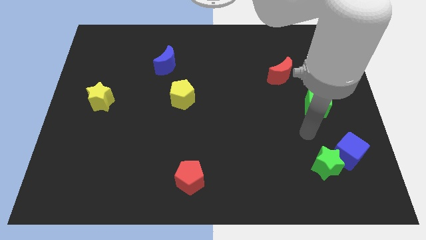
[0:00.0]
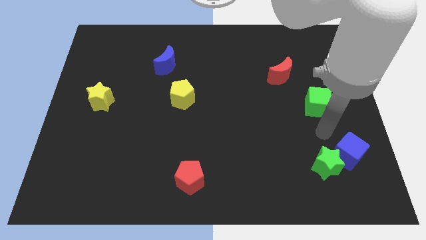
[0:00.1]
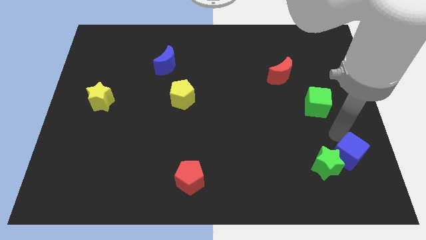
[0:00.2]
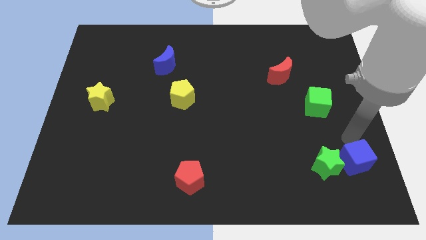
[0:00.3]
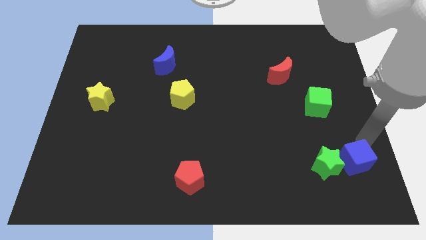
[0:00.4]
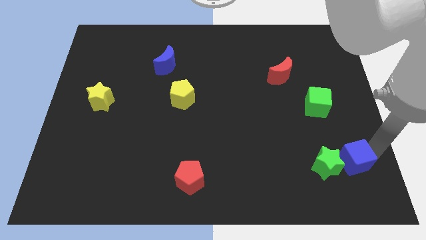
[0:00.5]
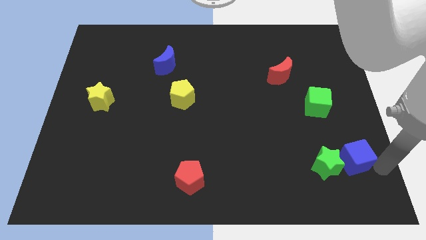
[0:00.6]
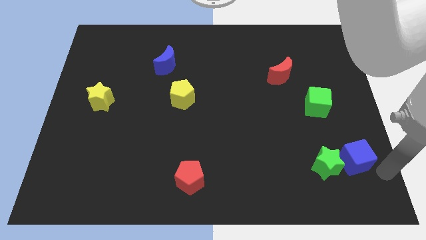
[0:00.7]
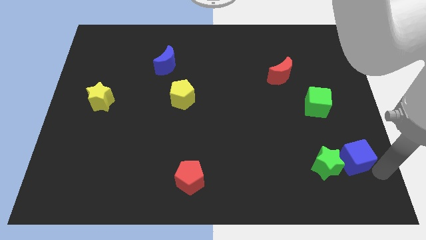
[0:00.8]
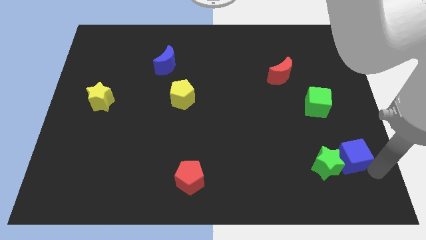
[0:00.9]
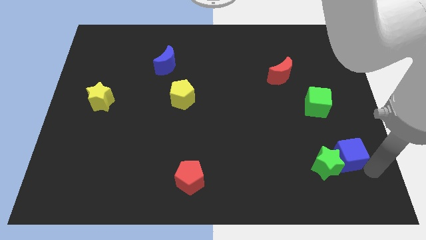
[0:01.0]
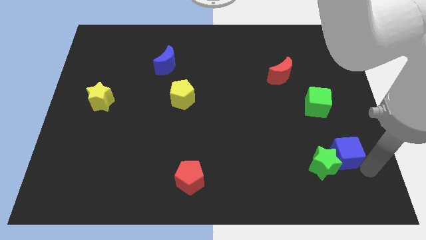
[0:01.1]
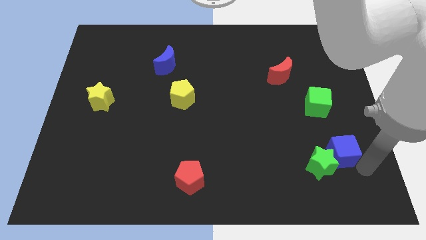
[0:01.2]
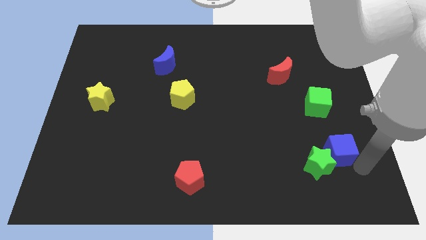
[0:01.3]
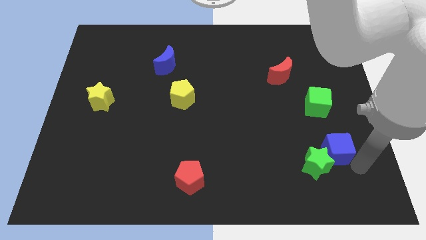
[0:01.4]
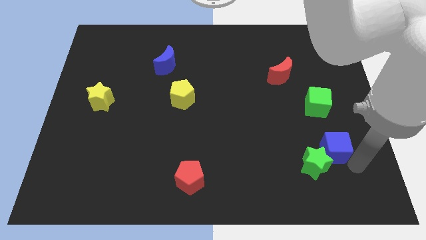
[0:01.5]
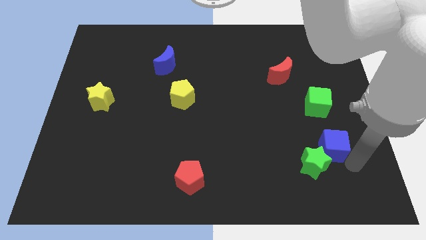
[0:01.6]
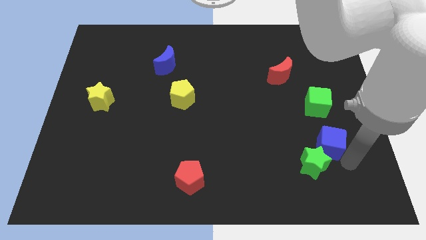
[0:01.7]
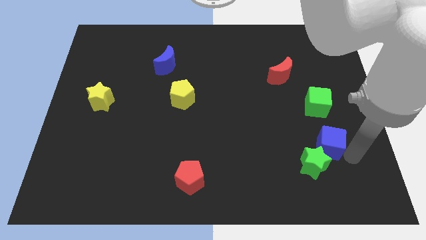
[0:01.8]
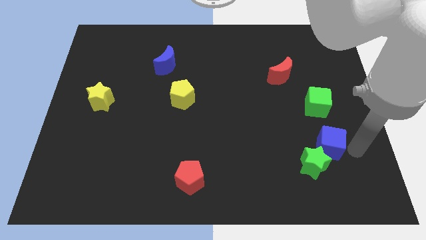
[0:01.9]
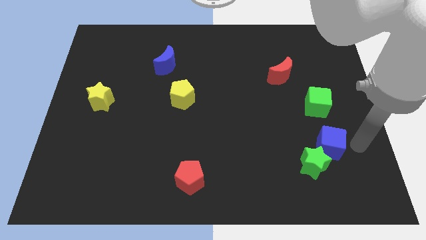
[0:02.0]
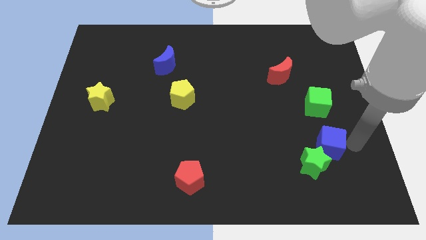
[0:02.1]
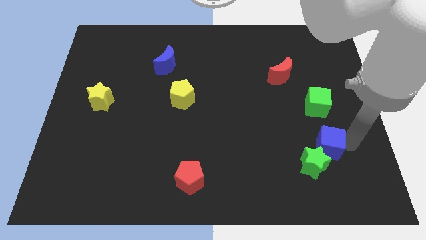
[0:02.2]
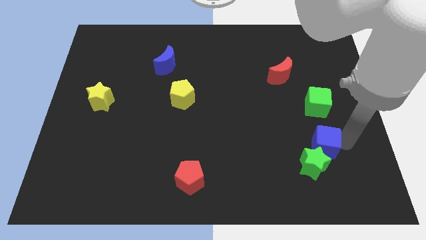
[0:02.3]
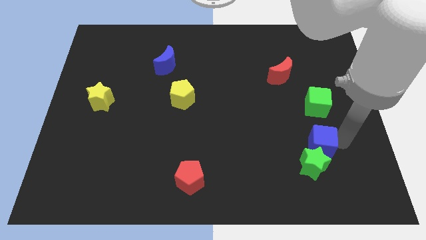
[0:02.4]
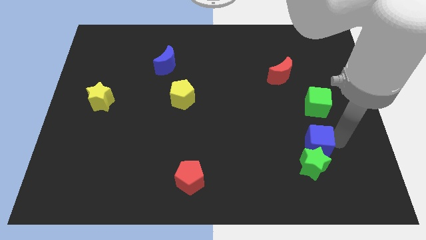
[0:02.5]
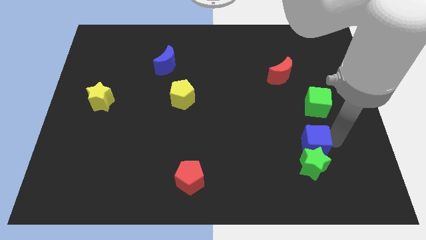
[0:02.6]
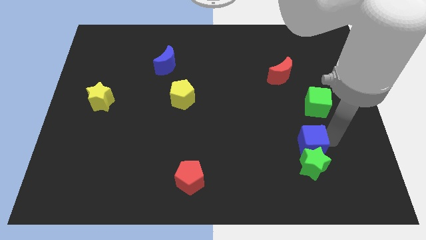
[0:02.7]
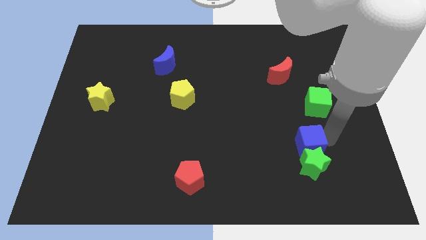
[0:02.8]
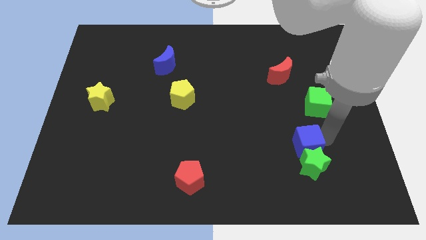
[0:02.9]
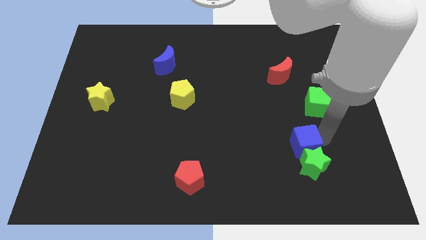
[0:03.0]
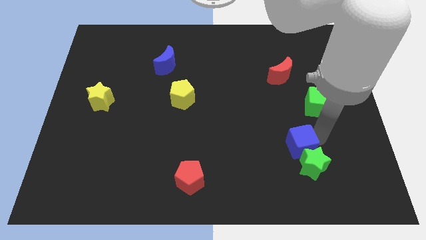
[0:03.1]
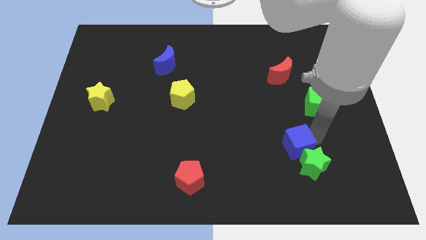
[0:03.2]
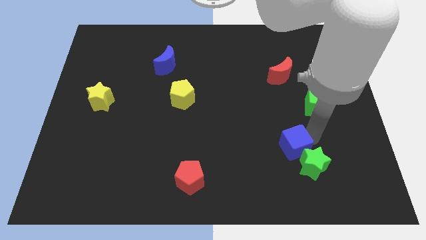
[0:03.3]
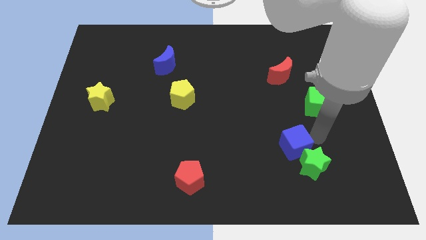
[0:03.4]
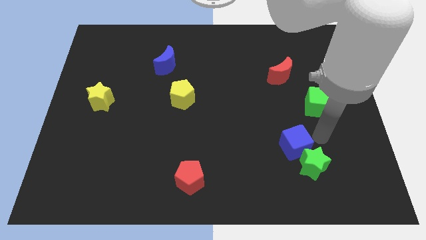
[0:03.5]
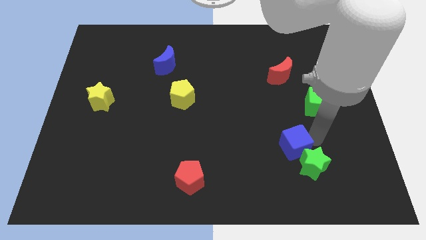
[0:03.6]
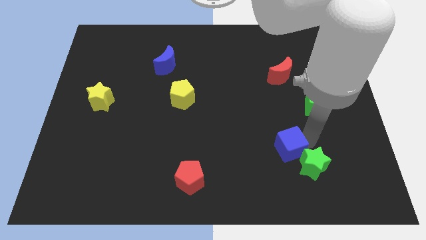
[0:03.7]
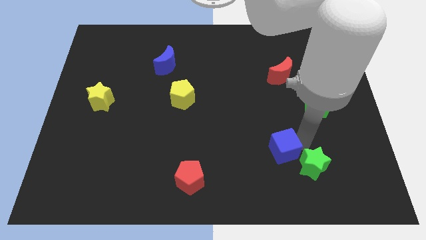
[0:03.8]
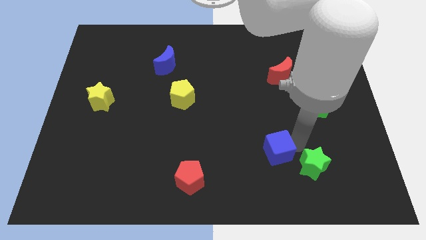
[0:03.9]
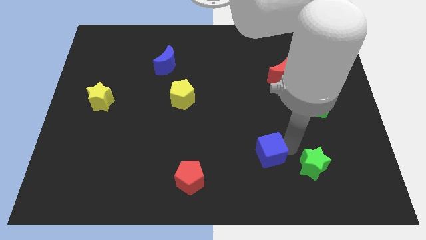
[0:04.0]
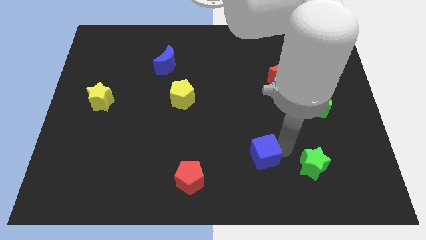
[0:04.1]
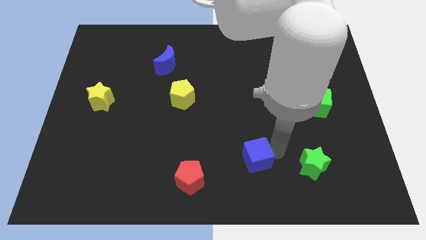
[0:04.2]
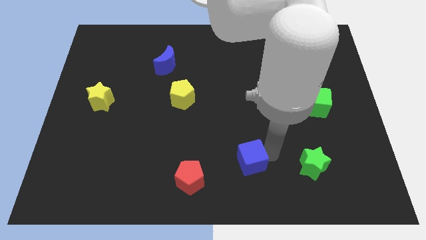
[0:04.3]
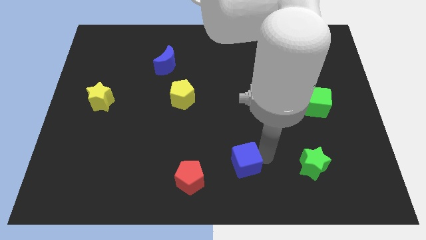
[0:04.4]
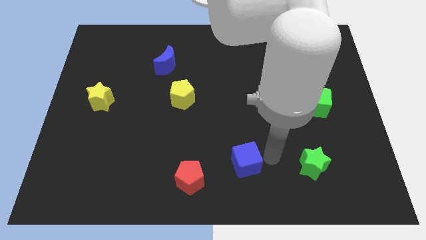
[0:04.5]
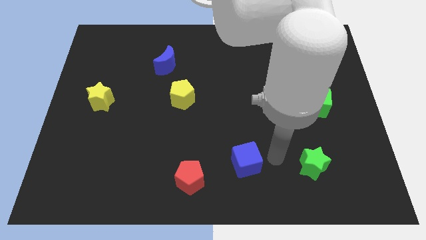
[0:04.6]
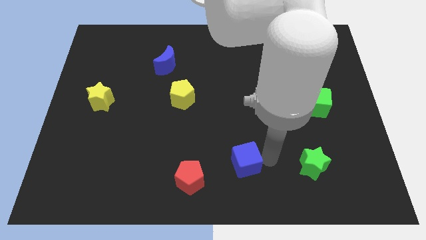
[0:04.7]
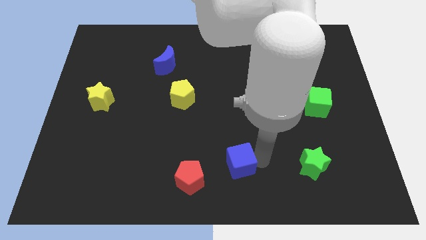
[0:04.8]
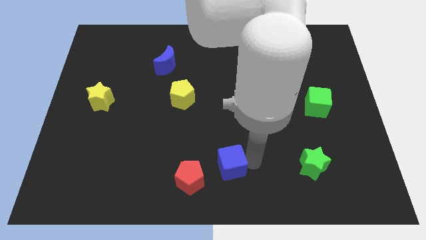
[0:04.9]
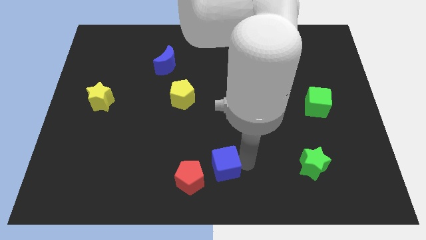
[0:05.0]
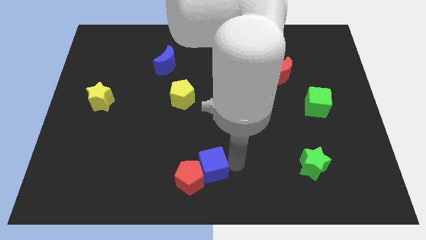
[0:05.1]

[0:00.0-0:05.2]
move the blue cube next to the red pentagon

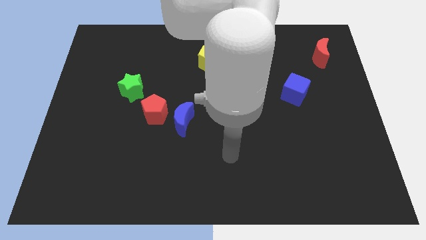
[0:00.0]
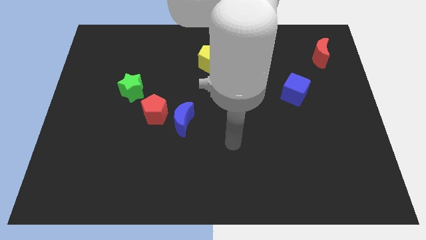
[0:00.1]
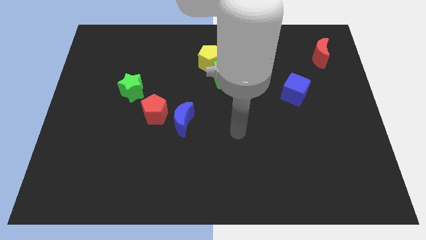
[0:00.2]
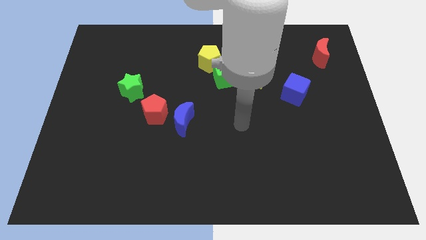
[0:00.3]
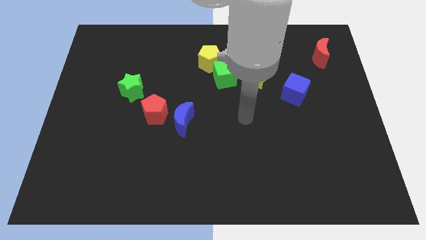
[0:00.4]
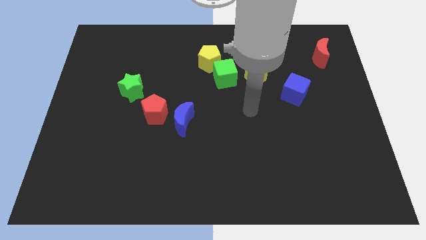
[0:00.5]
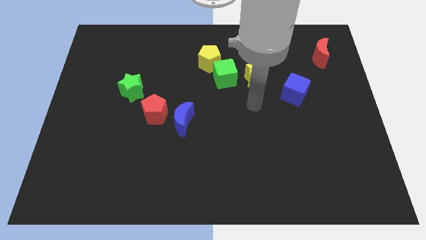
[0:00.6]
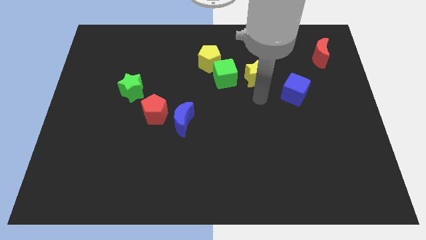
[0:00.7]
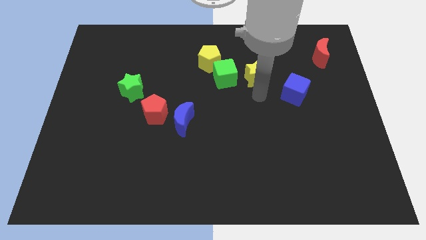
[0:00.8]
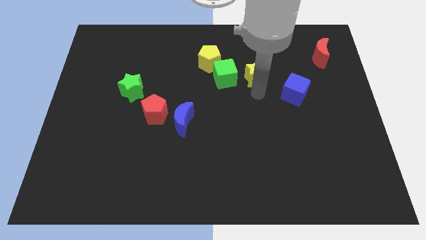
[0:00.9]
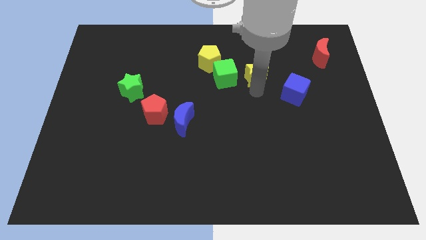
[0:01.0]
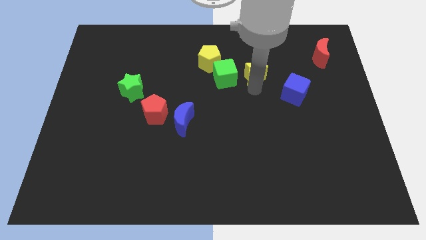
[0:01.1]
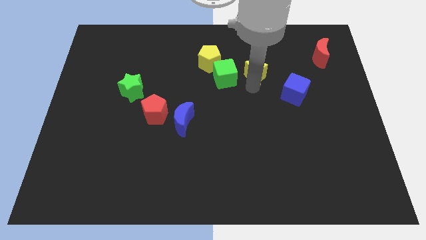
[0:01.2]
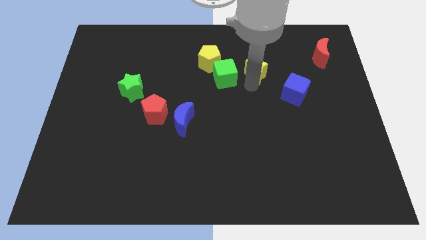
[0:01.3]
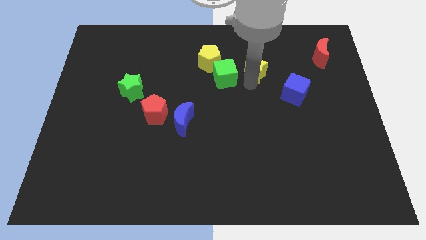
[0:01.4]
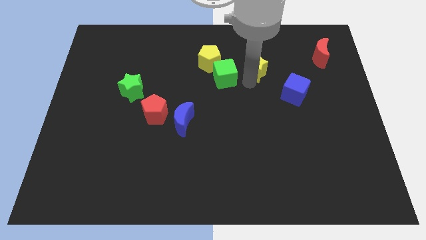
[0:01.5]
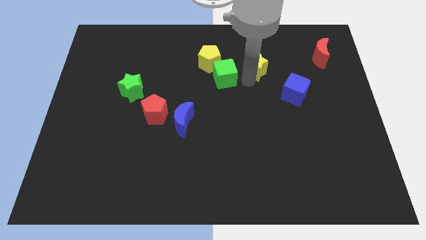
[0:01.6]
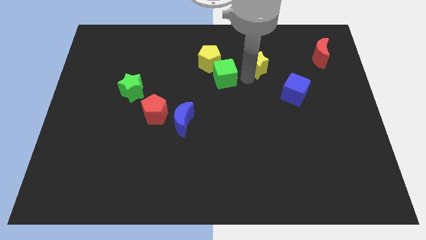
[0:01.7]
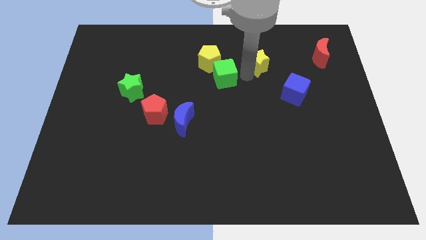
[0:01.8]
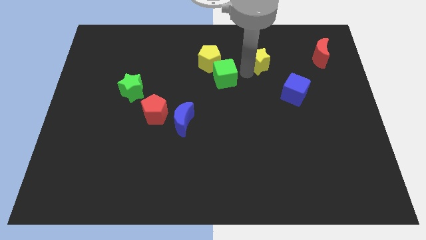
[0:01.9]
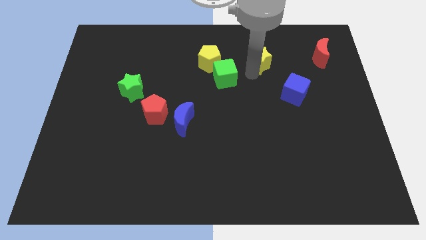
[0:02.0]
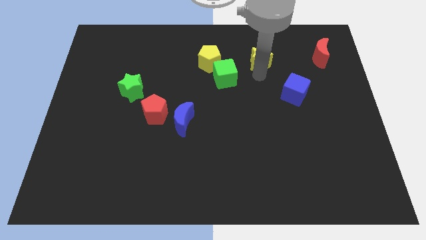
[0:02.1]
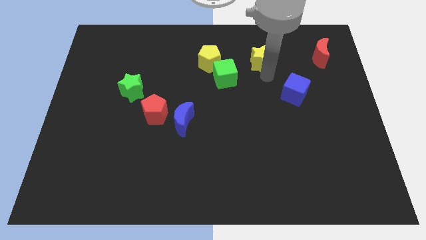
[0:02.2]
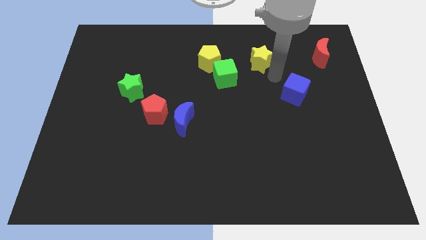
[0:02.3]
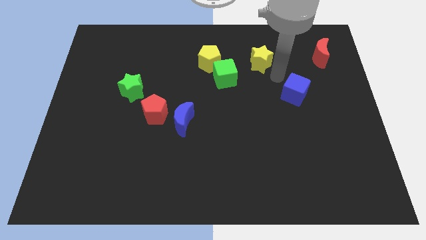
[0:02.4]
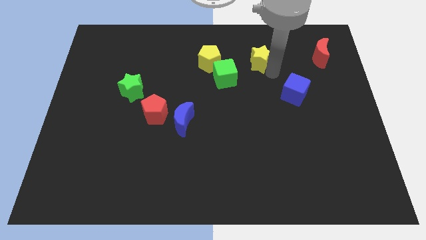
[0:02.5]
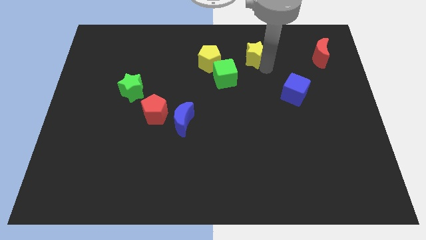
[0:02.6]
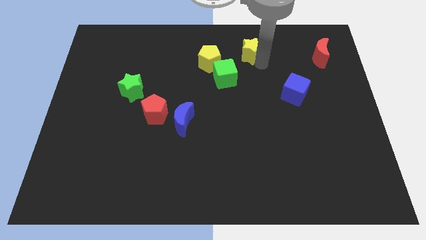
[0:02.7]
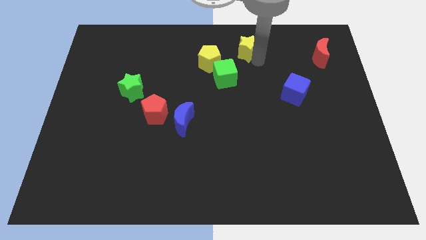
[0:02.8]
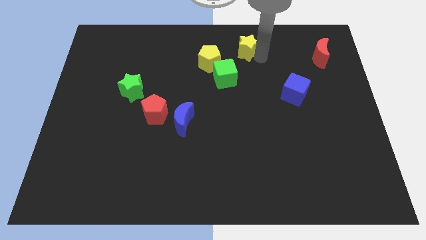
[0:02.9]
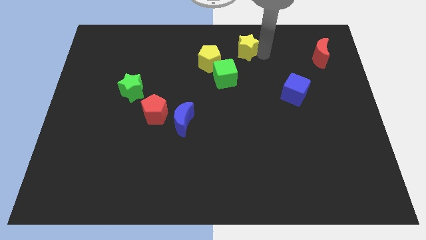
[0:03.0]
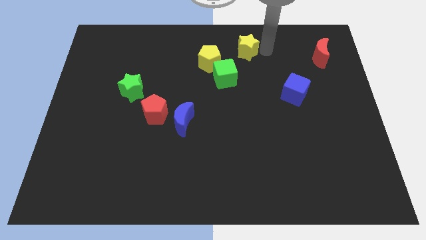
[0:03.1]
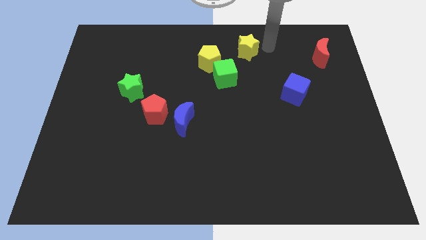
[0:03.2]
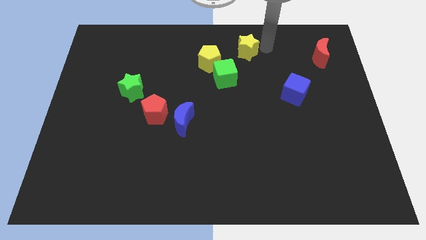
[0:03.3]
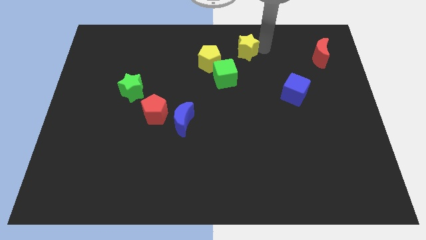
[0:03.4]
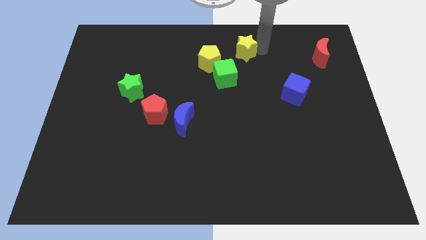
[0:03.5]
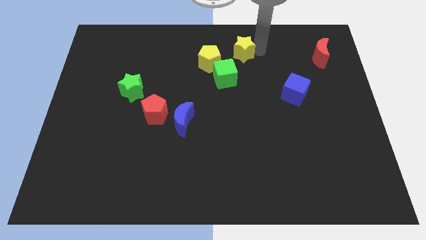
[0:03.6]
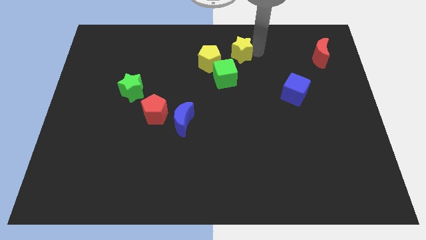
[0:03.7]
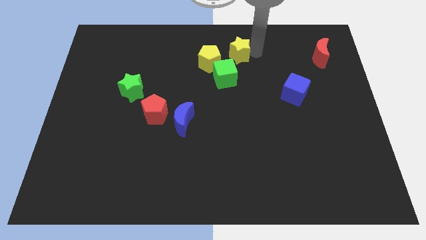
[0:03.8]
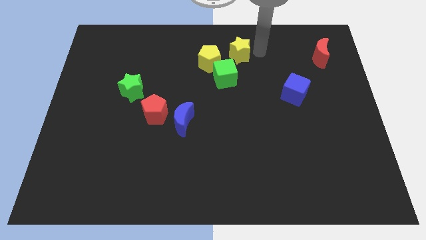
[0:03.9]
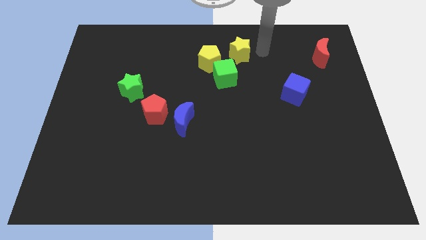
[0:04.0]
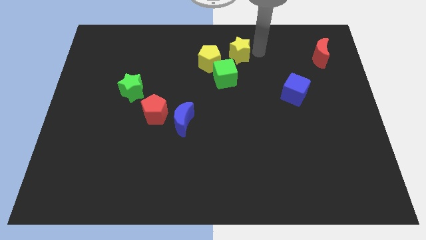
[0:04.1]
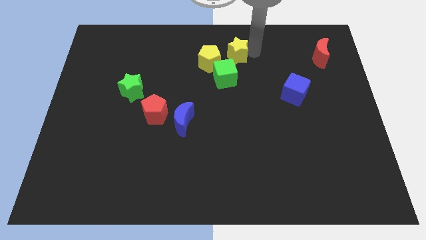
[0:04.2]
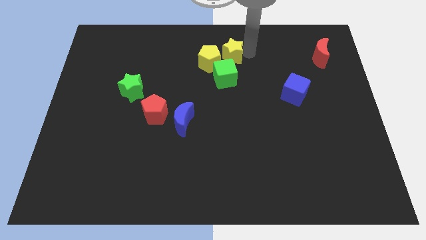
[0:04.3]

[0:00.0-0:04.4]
slide the yellow star to the yellow pentagon
